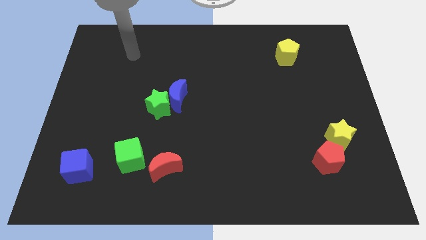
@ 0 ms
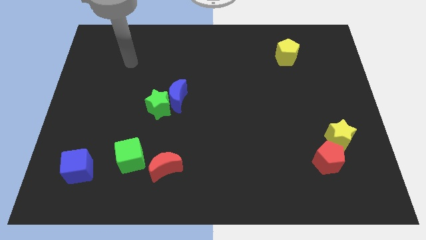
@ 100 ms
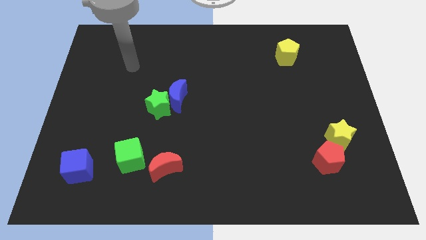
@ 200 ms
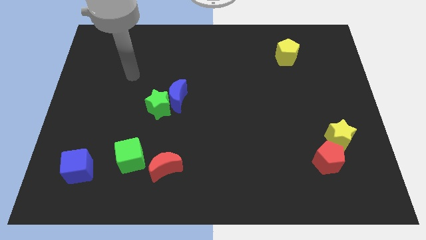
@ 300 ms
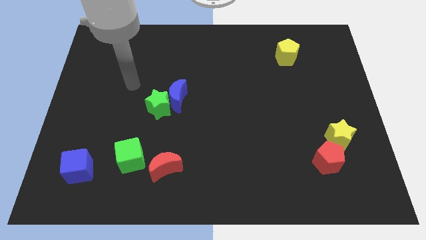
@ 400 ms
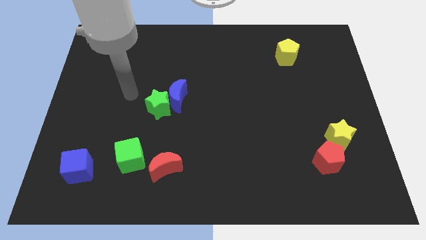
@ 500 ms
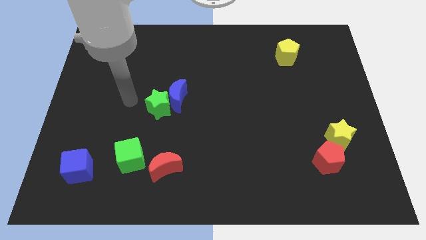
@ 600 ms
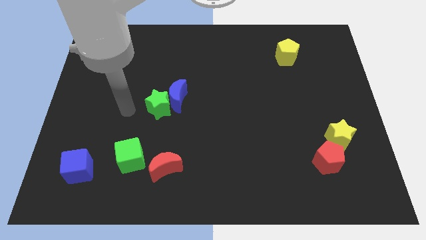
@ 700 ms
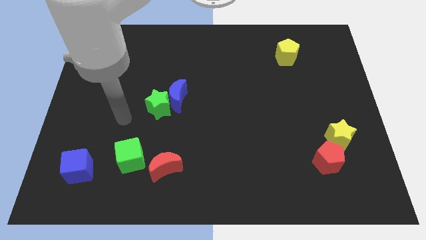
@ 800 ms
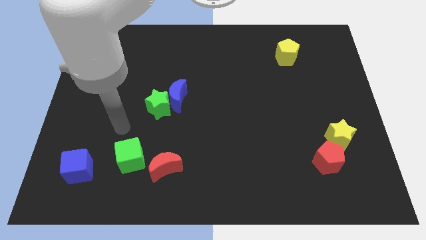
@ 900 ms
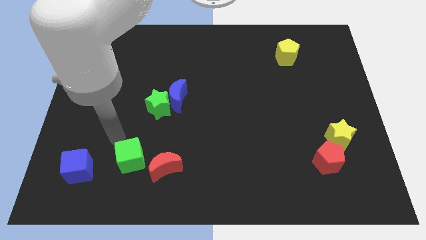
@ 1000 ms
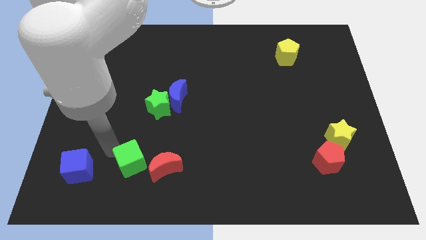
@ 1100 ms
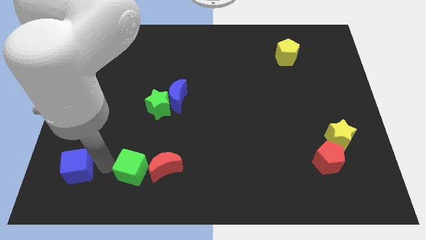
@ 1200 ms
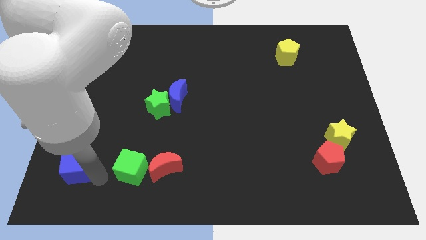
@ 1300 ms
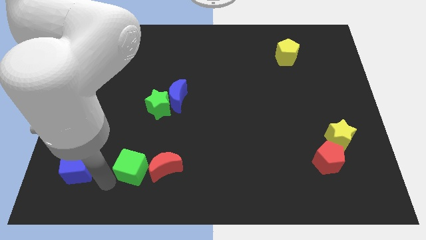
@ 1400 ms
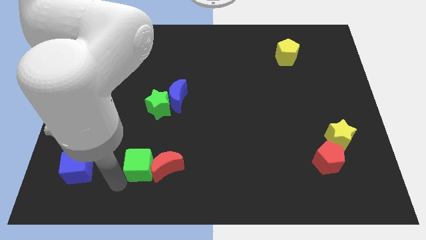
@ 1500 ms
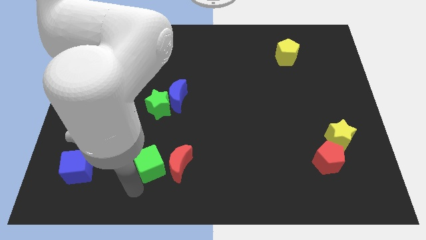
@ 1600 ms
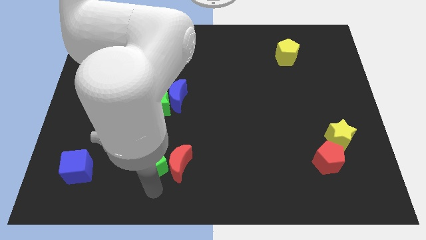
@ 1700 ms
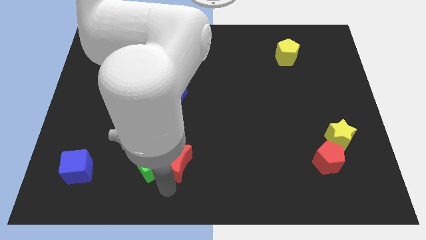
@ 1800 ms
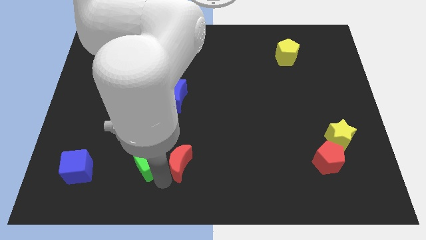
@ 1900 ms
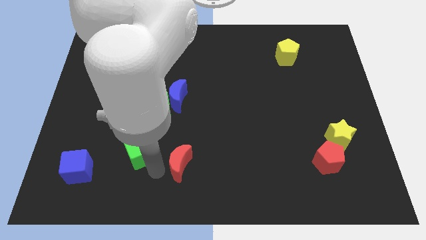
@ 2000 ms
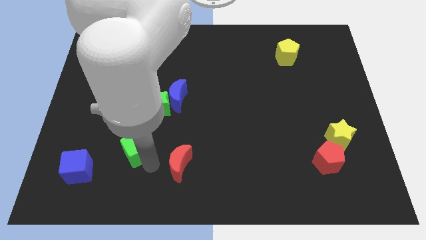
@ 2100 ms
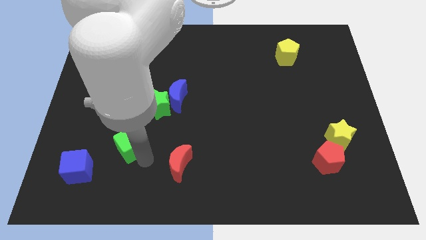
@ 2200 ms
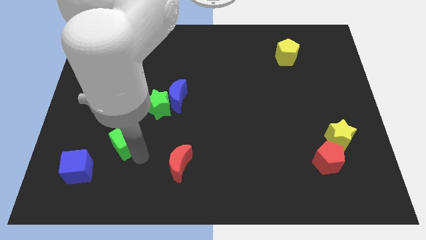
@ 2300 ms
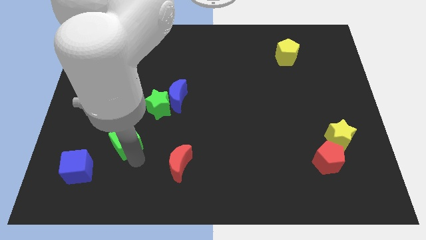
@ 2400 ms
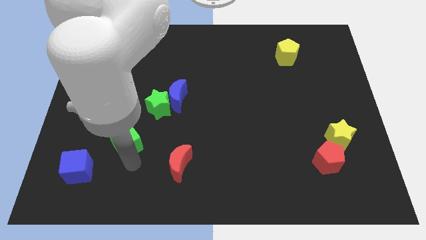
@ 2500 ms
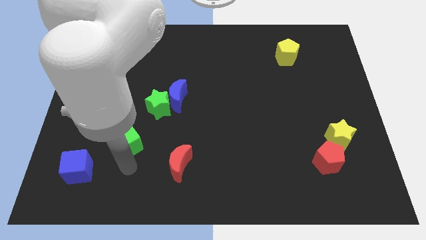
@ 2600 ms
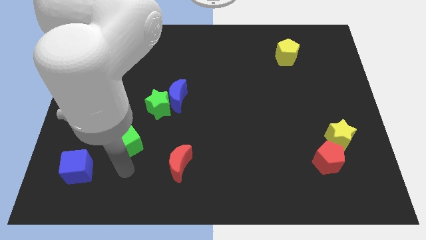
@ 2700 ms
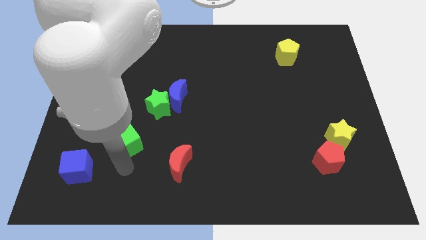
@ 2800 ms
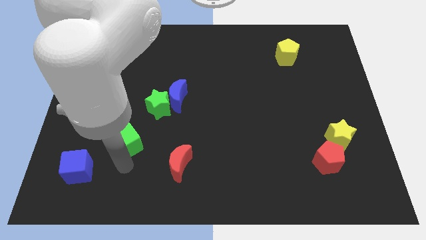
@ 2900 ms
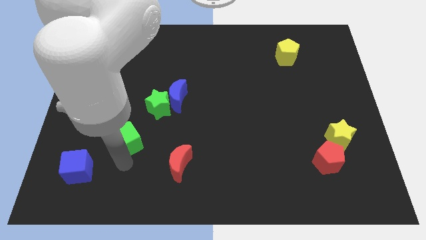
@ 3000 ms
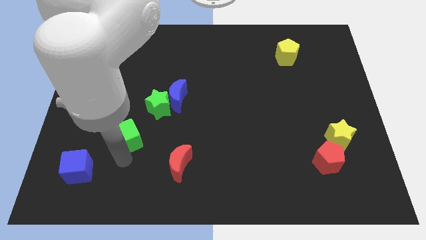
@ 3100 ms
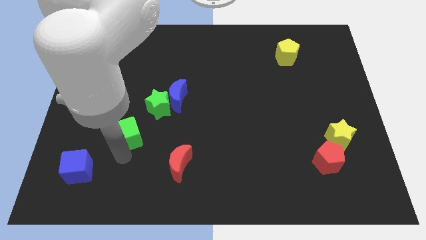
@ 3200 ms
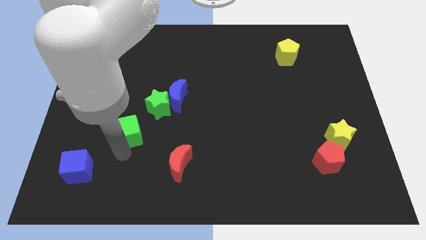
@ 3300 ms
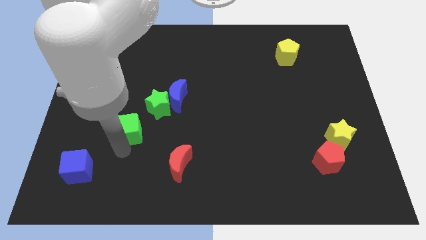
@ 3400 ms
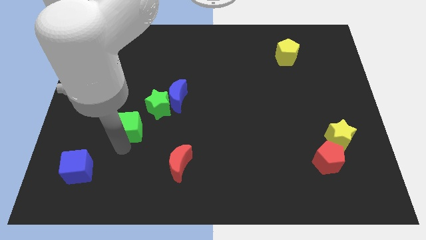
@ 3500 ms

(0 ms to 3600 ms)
move the green cube a little up

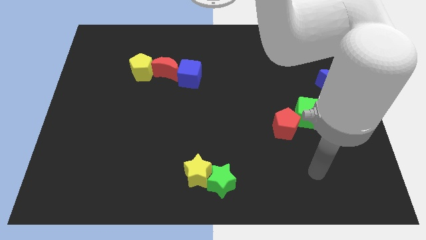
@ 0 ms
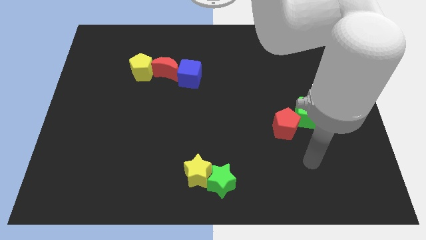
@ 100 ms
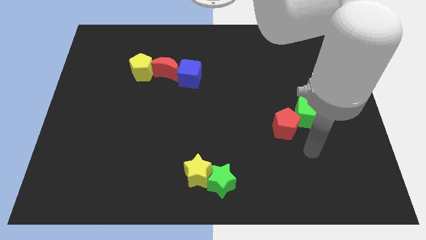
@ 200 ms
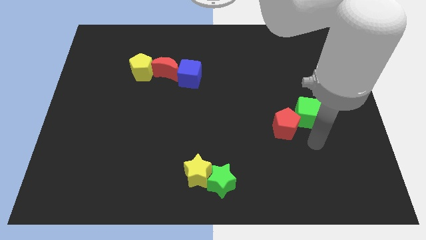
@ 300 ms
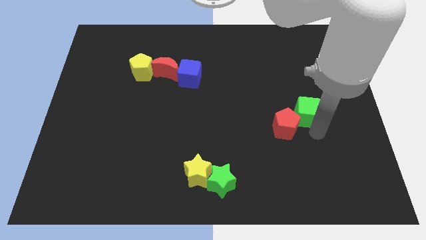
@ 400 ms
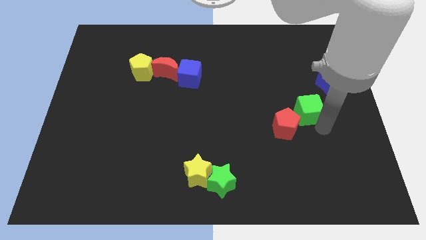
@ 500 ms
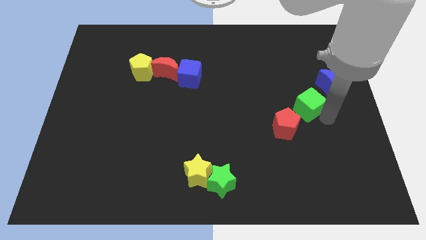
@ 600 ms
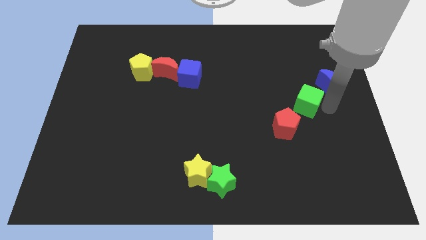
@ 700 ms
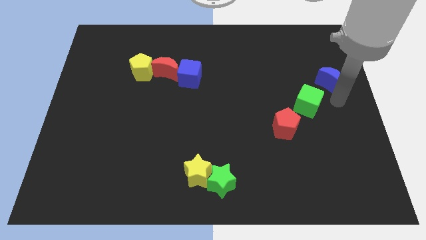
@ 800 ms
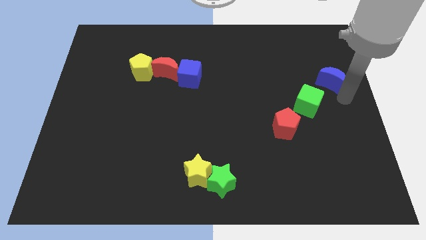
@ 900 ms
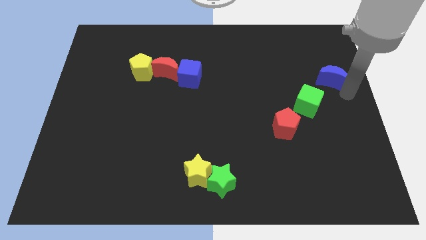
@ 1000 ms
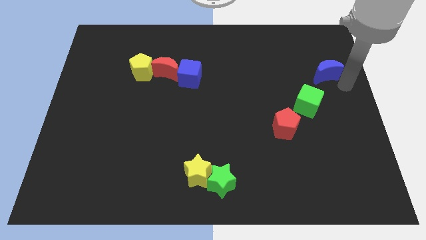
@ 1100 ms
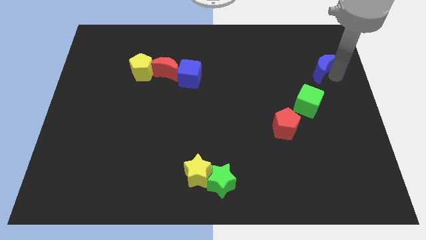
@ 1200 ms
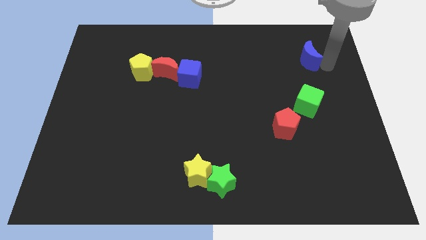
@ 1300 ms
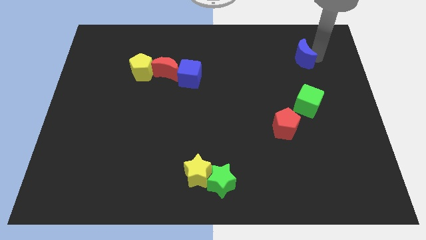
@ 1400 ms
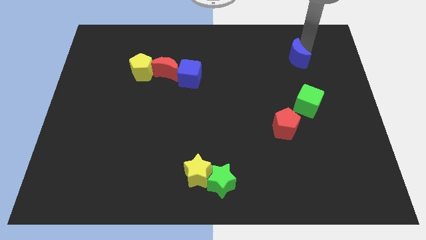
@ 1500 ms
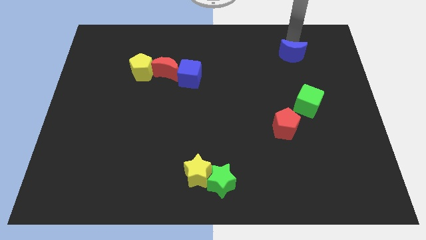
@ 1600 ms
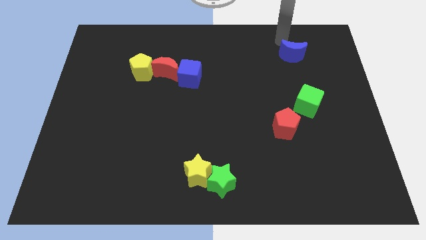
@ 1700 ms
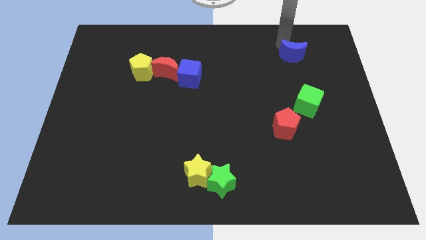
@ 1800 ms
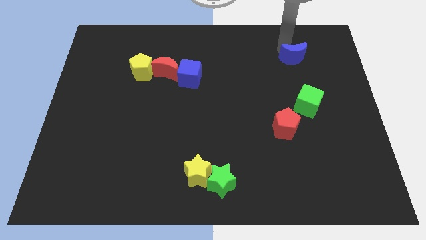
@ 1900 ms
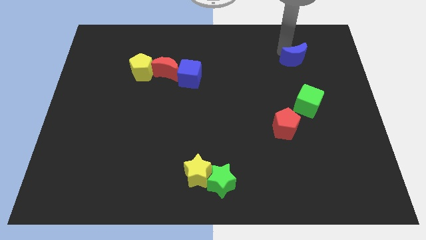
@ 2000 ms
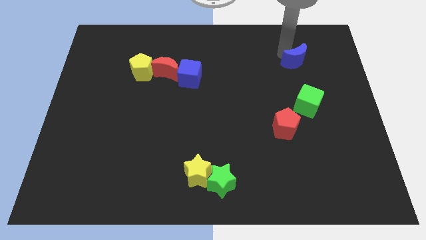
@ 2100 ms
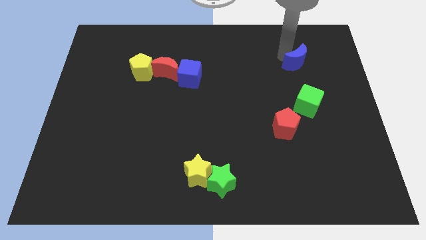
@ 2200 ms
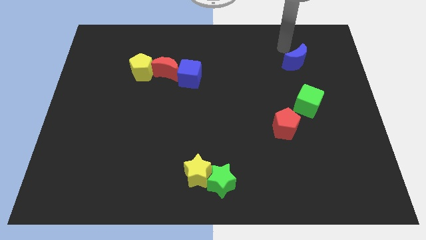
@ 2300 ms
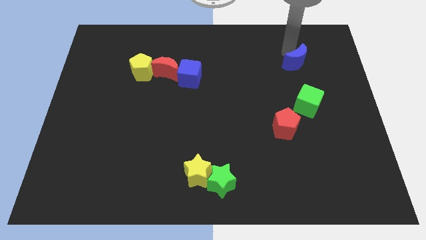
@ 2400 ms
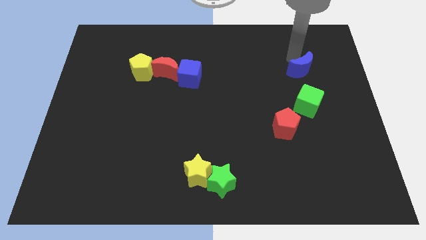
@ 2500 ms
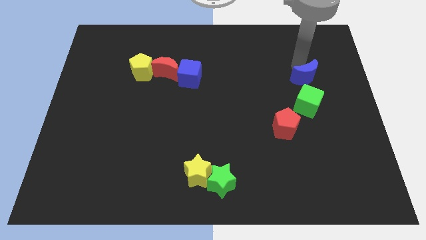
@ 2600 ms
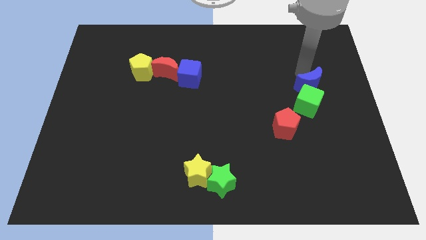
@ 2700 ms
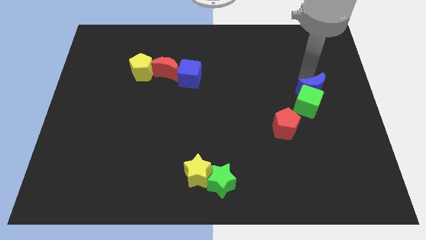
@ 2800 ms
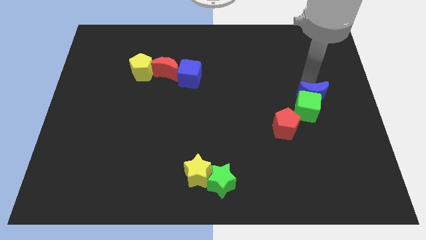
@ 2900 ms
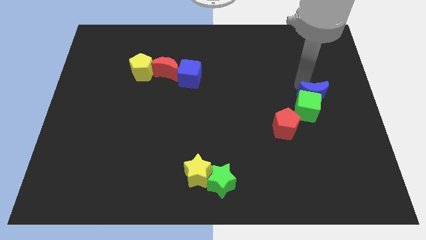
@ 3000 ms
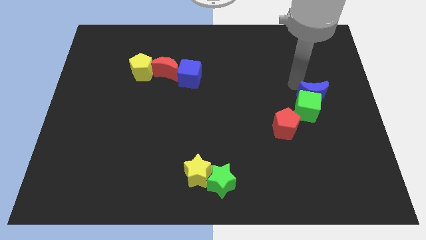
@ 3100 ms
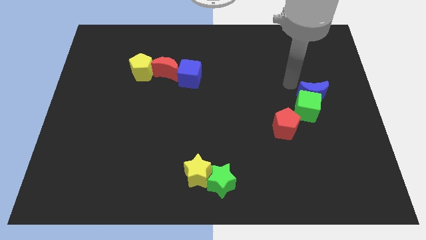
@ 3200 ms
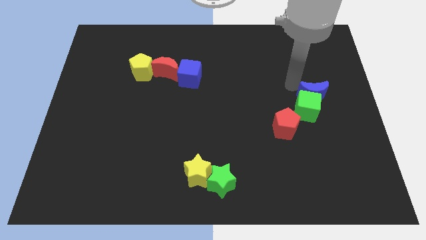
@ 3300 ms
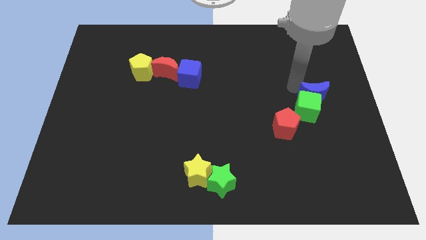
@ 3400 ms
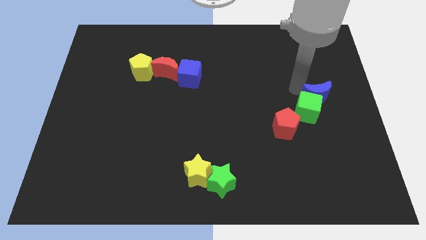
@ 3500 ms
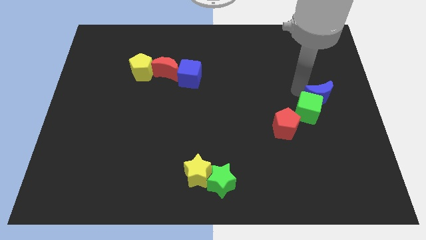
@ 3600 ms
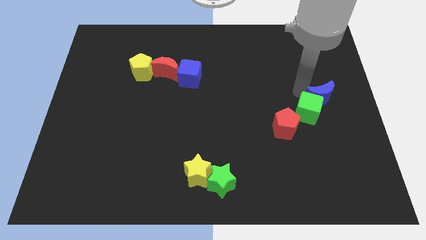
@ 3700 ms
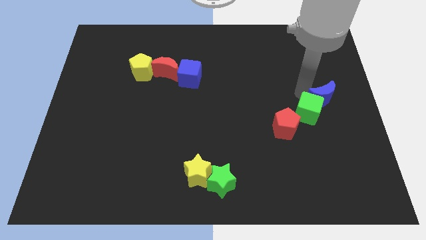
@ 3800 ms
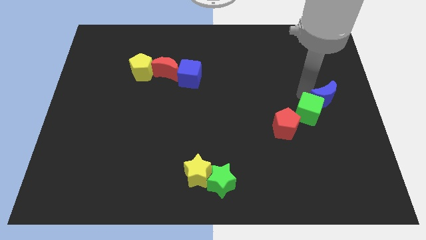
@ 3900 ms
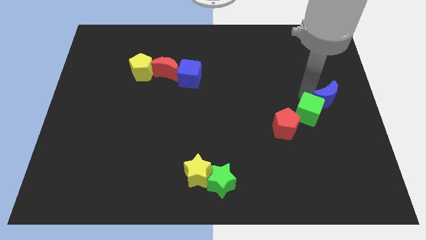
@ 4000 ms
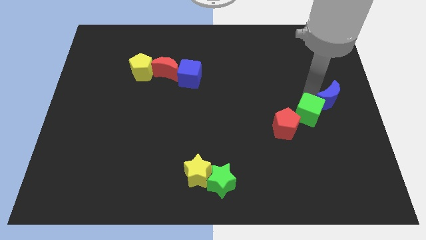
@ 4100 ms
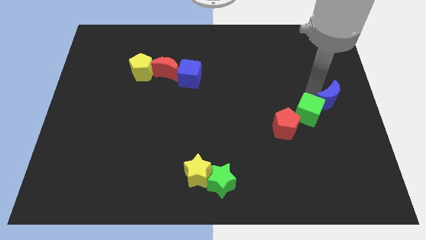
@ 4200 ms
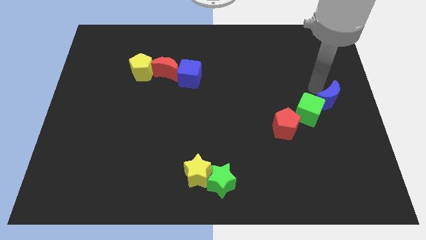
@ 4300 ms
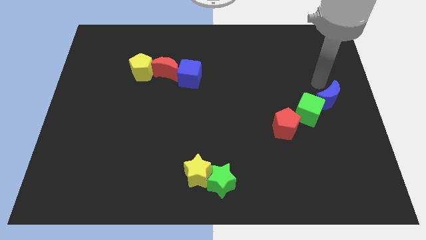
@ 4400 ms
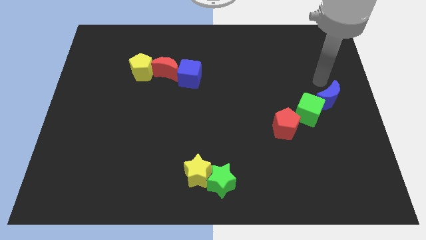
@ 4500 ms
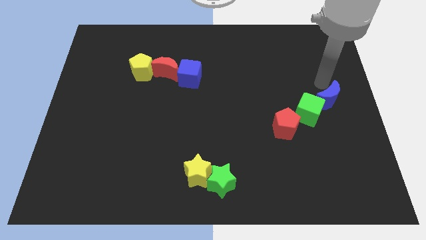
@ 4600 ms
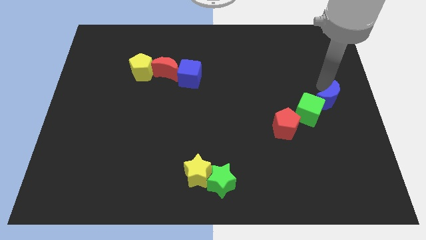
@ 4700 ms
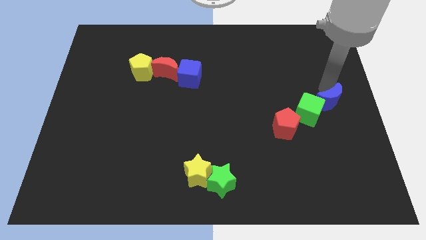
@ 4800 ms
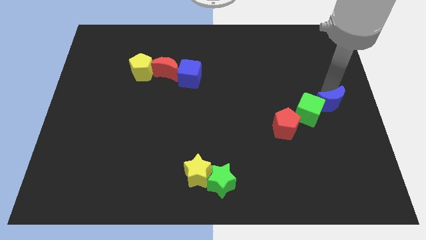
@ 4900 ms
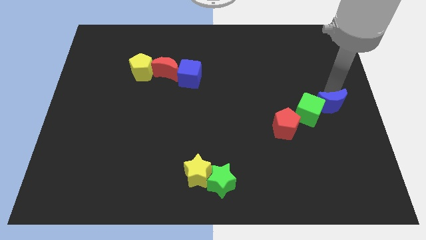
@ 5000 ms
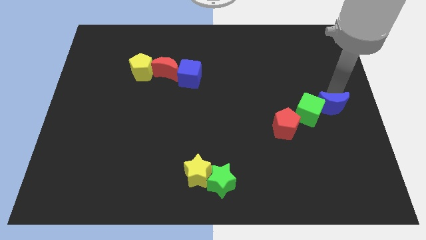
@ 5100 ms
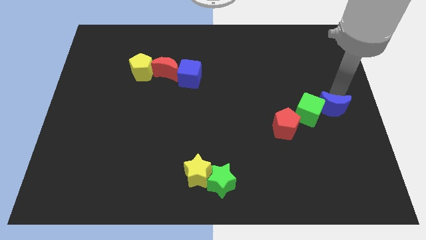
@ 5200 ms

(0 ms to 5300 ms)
slightly move the blue moon downwards
